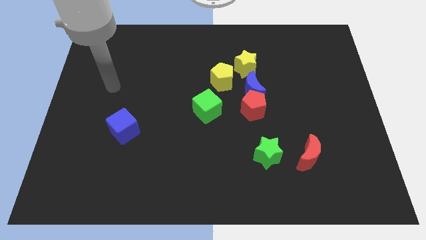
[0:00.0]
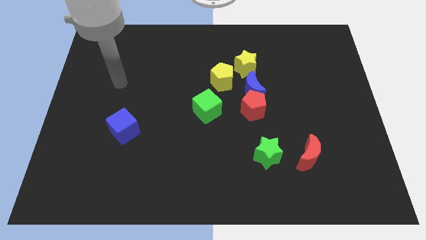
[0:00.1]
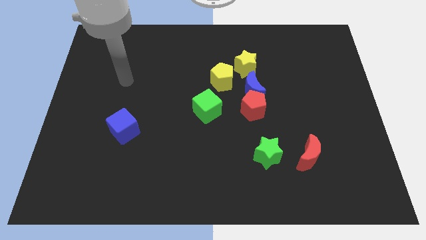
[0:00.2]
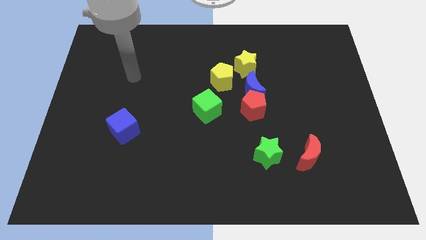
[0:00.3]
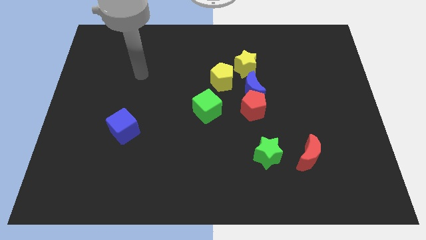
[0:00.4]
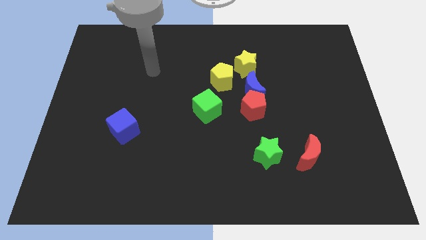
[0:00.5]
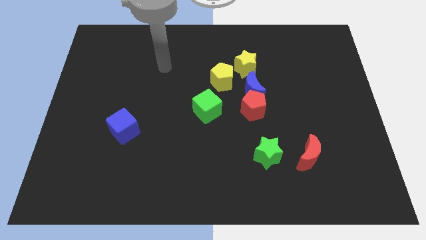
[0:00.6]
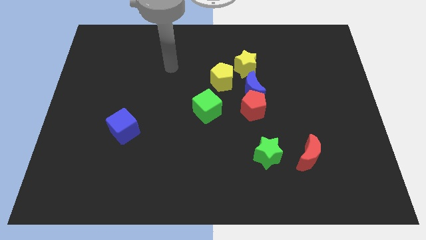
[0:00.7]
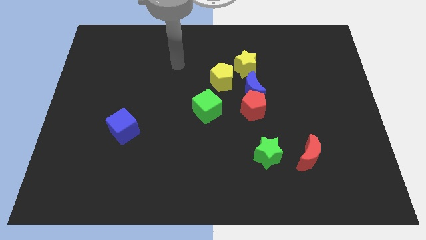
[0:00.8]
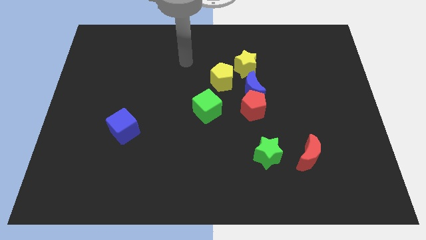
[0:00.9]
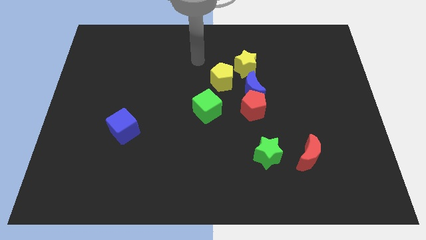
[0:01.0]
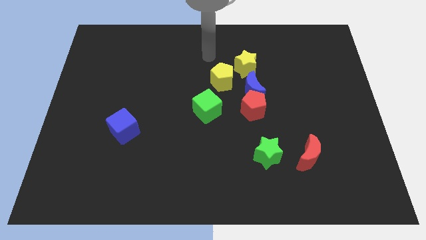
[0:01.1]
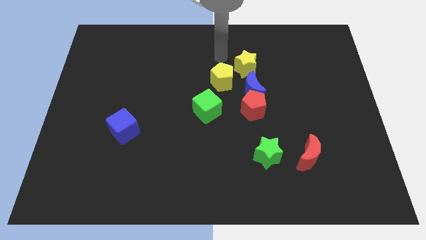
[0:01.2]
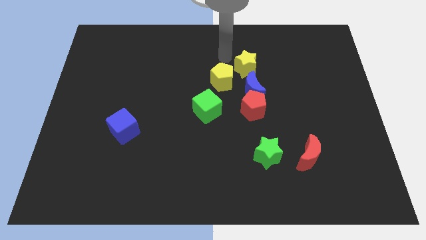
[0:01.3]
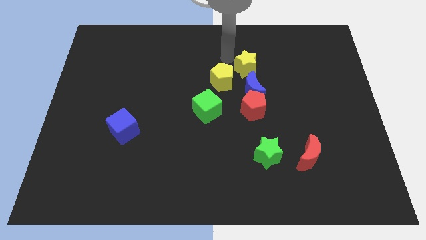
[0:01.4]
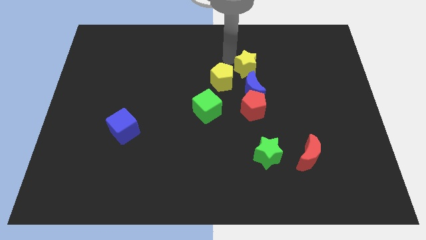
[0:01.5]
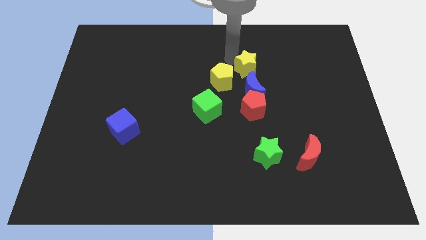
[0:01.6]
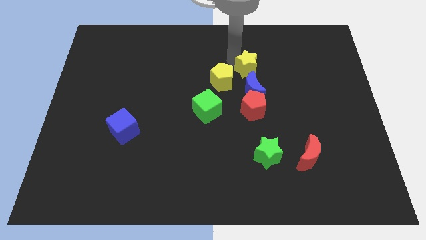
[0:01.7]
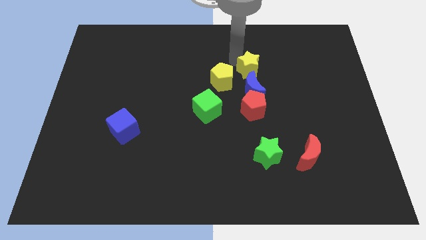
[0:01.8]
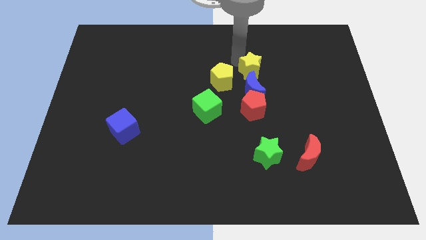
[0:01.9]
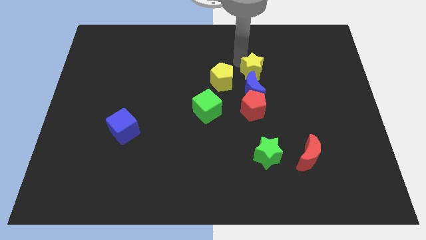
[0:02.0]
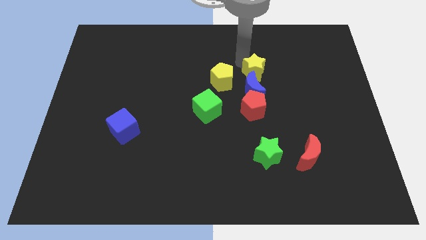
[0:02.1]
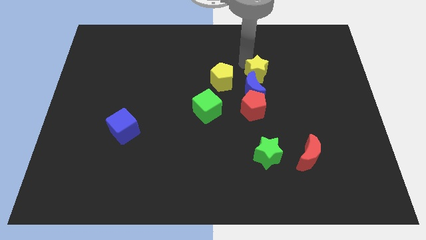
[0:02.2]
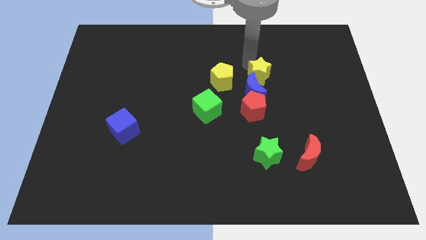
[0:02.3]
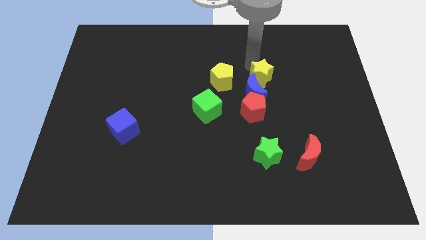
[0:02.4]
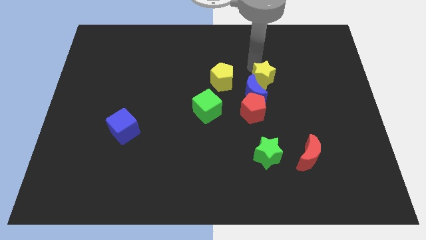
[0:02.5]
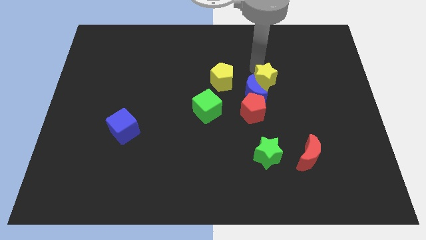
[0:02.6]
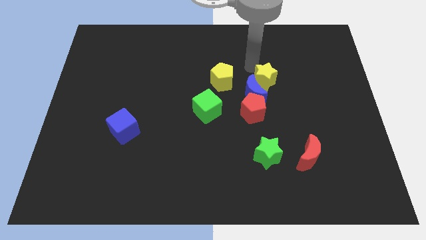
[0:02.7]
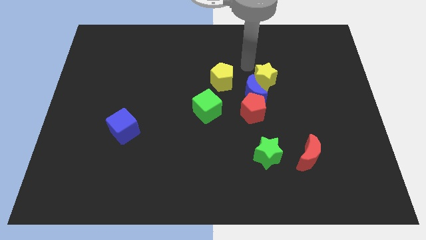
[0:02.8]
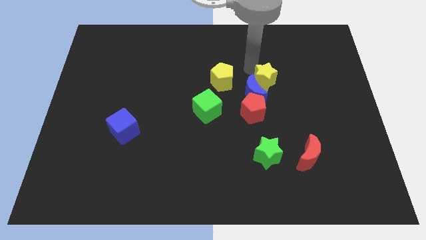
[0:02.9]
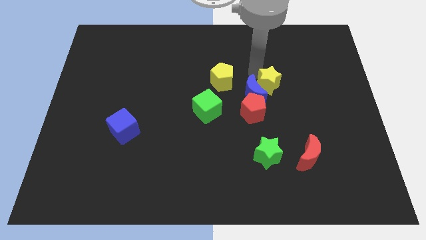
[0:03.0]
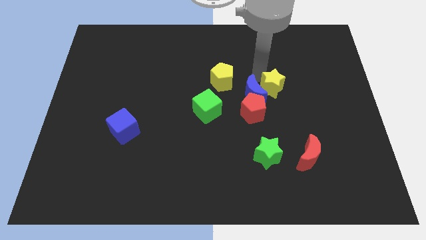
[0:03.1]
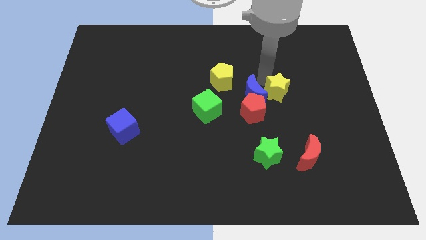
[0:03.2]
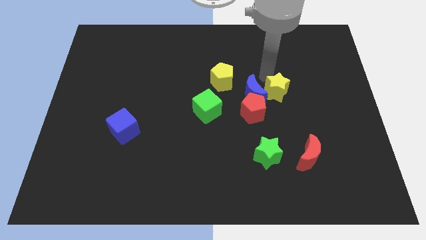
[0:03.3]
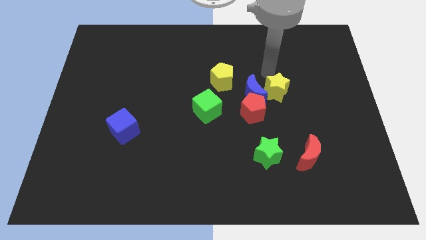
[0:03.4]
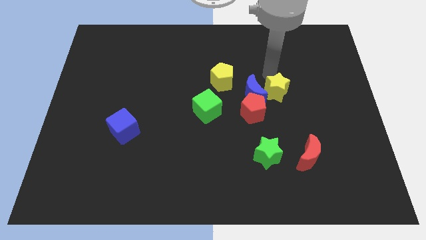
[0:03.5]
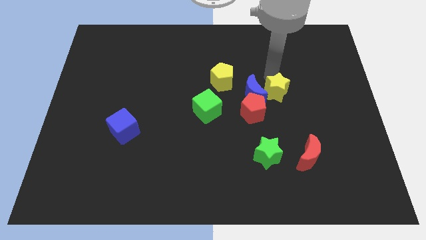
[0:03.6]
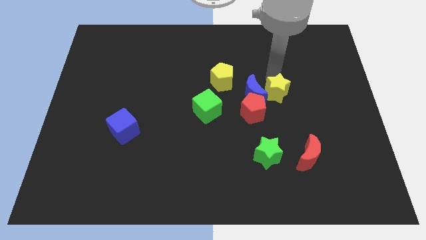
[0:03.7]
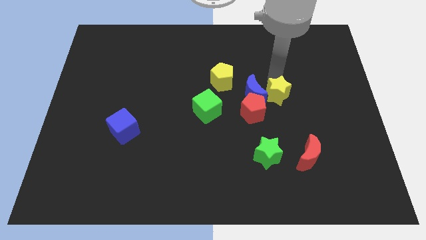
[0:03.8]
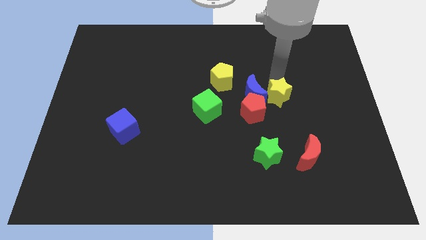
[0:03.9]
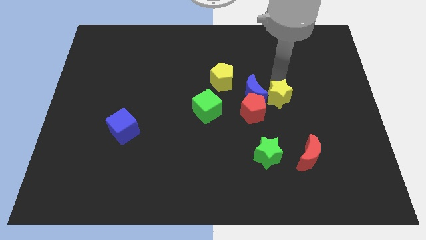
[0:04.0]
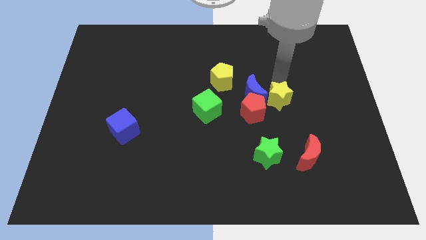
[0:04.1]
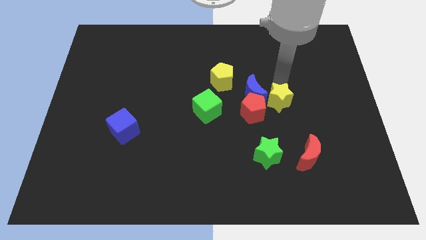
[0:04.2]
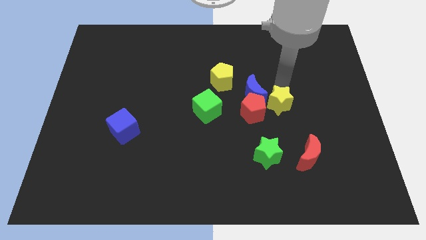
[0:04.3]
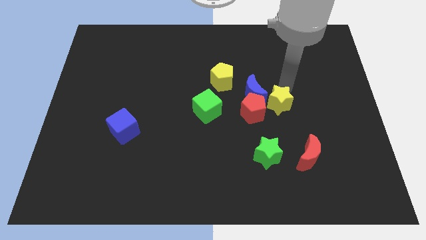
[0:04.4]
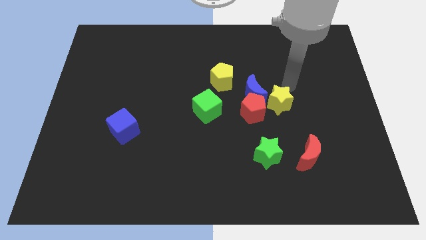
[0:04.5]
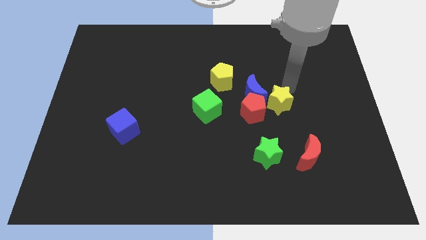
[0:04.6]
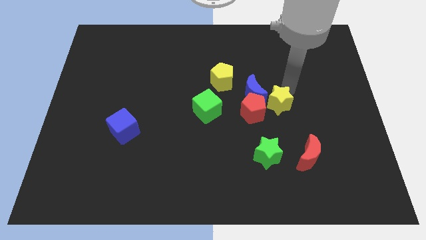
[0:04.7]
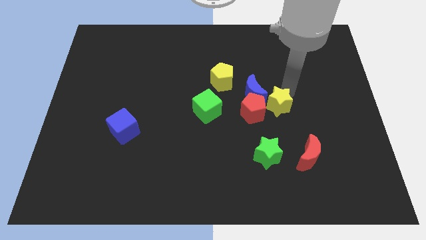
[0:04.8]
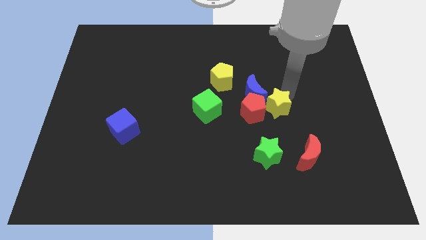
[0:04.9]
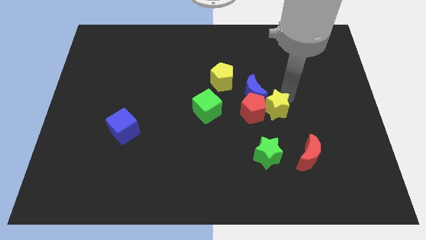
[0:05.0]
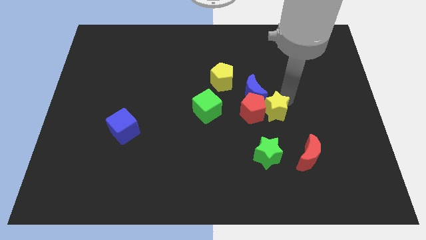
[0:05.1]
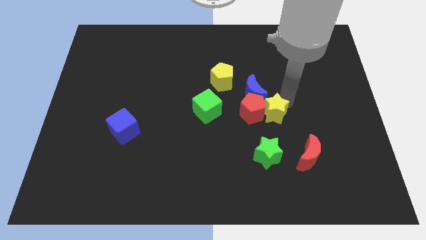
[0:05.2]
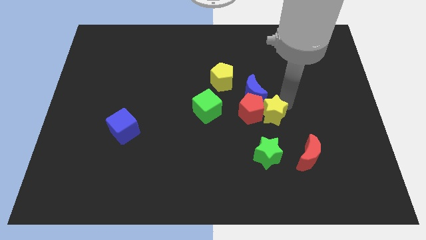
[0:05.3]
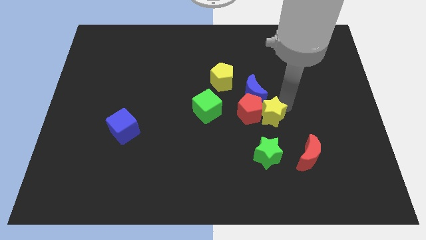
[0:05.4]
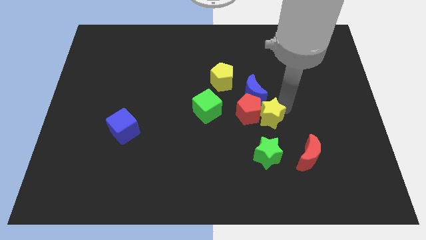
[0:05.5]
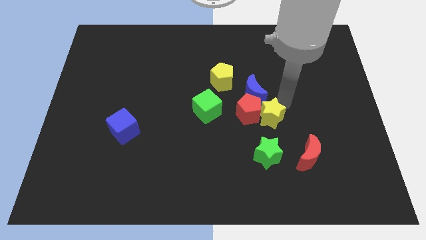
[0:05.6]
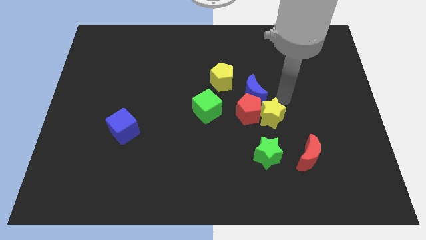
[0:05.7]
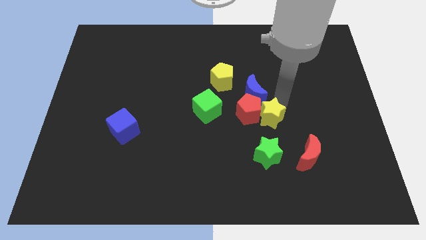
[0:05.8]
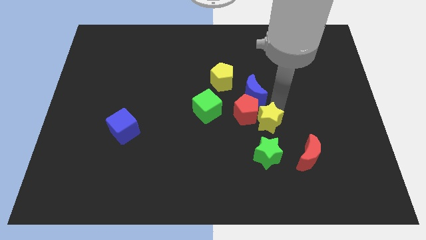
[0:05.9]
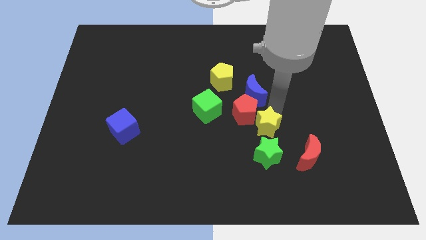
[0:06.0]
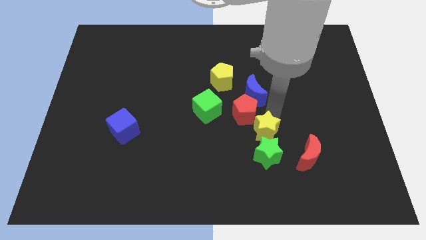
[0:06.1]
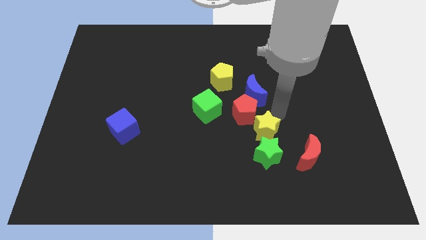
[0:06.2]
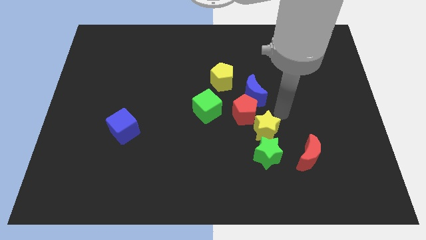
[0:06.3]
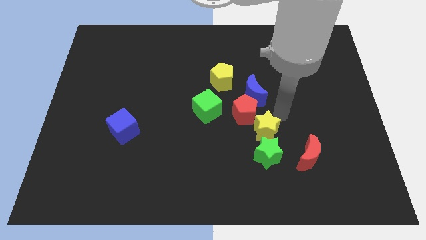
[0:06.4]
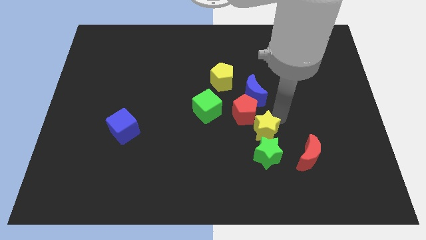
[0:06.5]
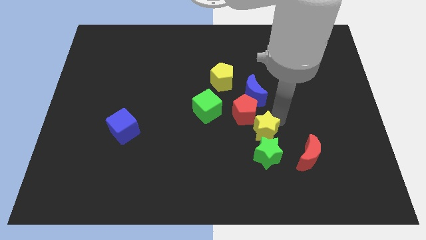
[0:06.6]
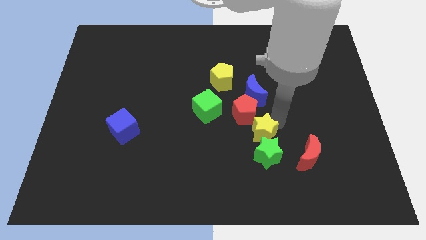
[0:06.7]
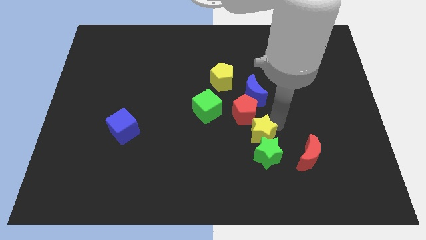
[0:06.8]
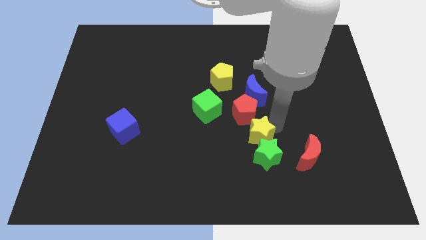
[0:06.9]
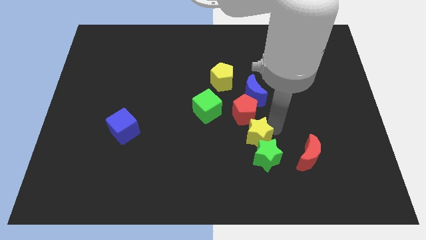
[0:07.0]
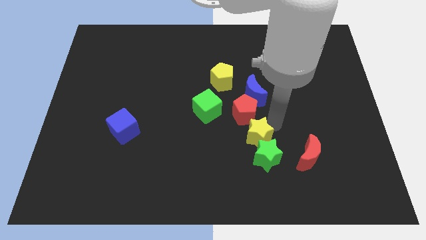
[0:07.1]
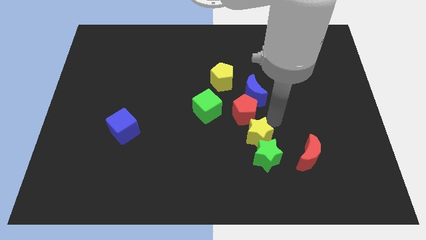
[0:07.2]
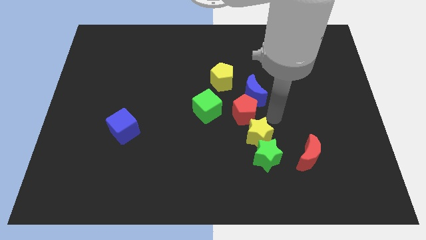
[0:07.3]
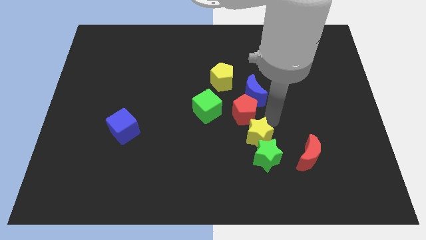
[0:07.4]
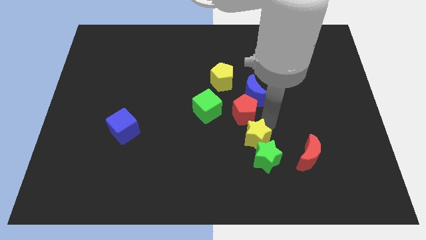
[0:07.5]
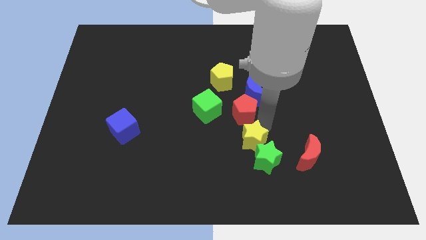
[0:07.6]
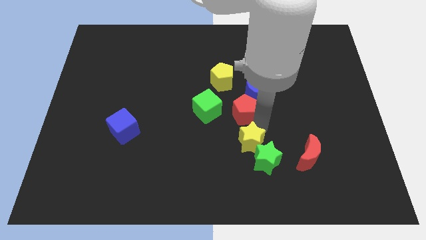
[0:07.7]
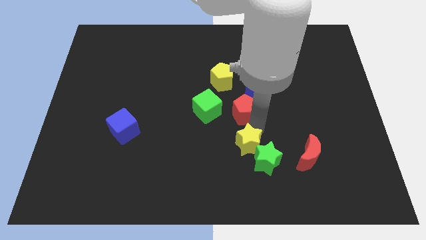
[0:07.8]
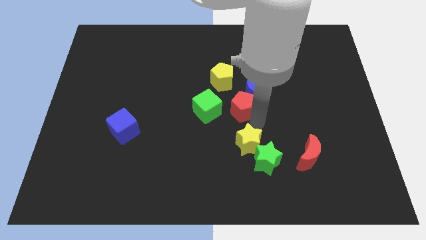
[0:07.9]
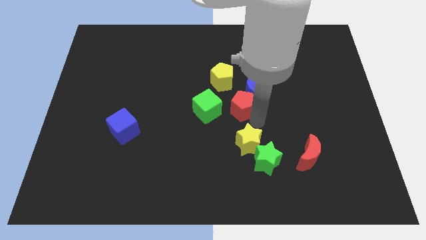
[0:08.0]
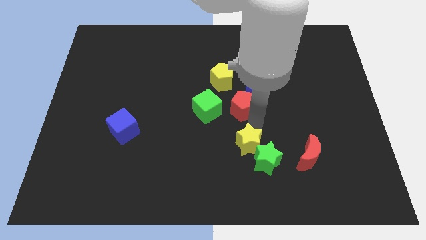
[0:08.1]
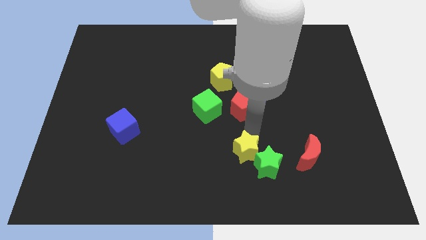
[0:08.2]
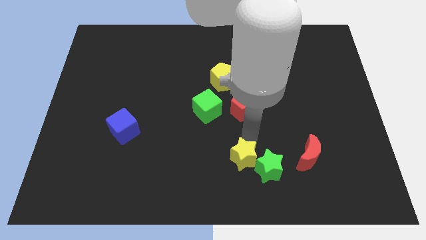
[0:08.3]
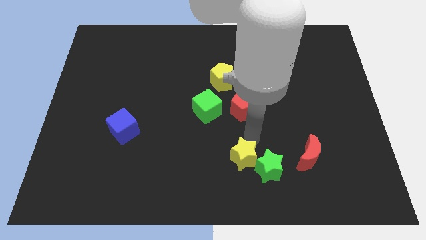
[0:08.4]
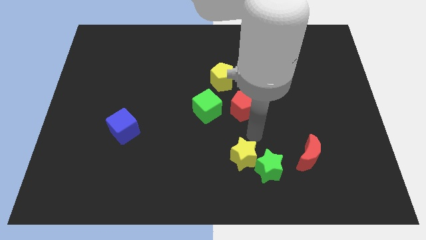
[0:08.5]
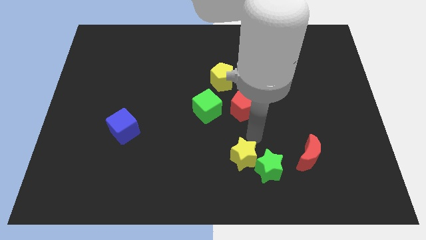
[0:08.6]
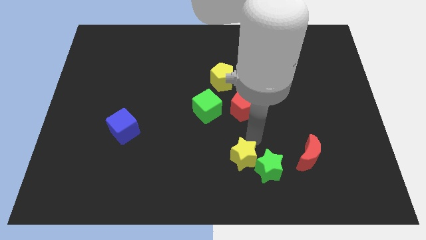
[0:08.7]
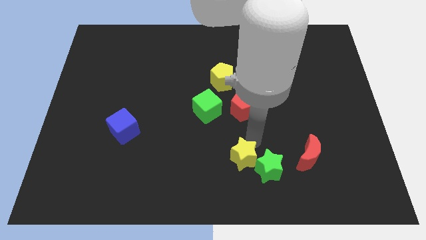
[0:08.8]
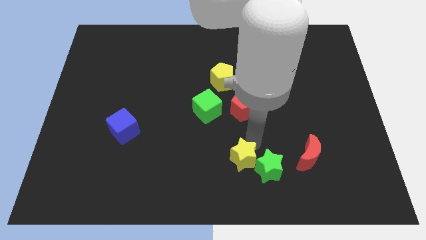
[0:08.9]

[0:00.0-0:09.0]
slide the yellow star to the bottom side
